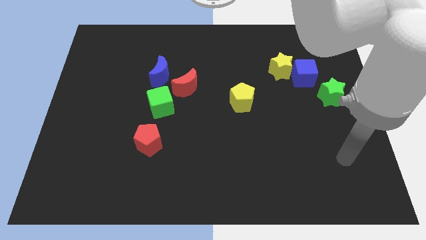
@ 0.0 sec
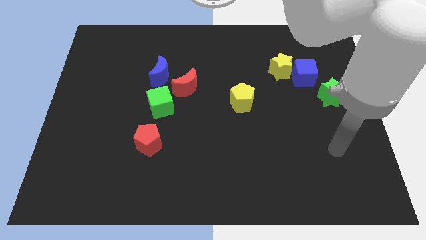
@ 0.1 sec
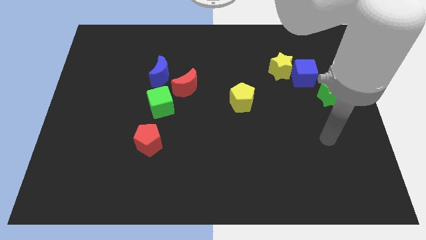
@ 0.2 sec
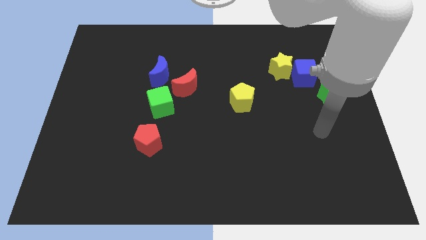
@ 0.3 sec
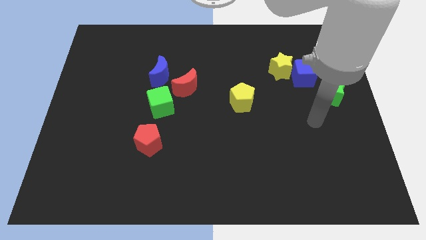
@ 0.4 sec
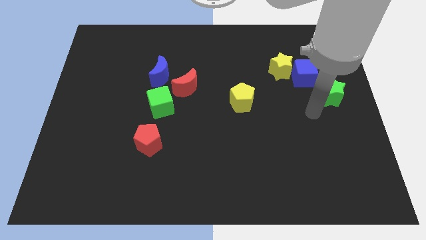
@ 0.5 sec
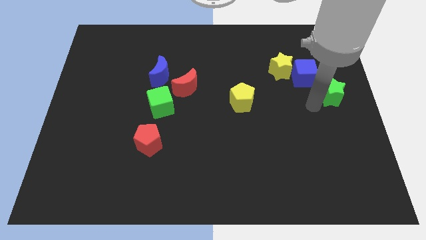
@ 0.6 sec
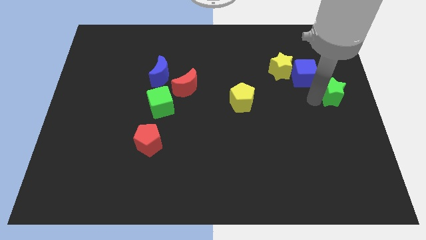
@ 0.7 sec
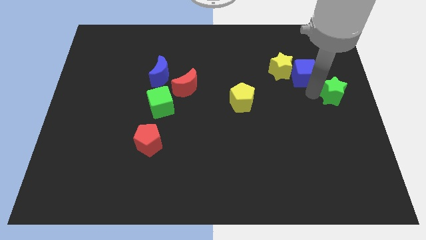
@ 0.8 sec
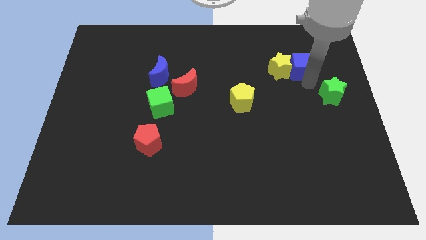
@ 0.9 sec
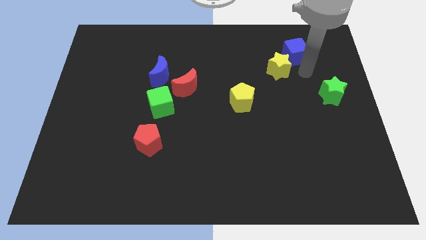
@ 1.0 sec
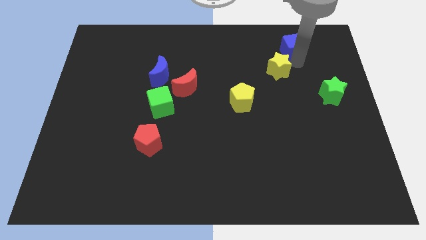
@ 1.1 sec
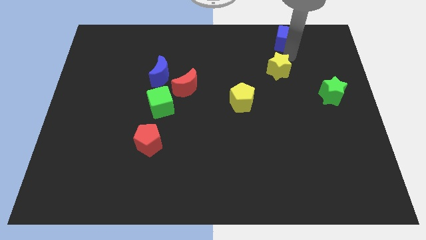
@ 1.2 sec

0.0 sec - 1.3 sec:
separate the yellow star from the blue cube

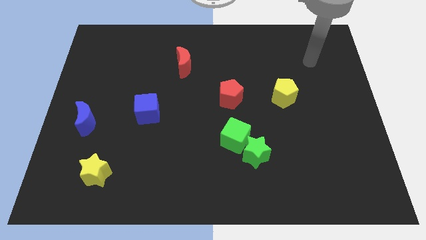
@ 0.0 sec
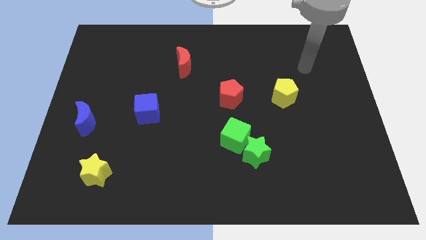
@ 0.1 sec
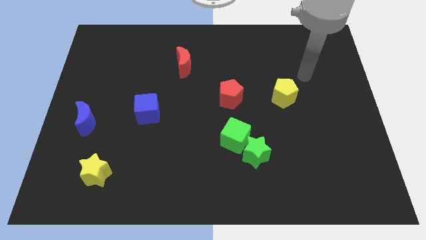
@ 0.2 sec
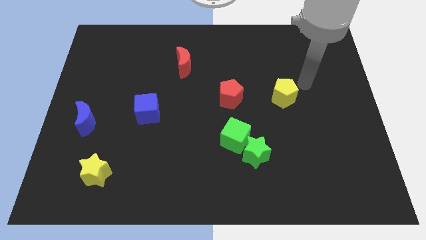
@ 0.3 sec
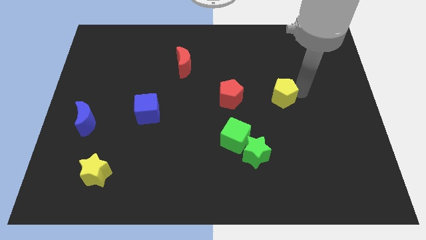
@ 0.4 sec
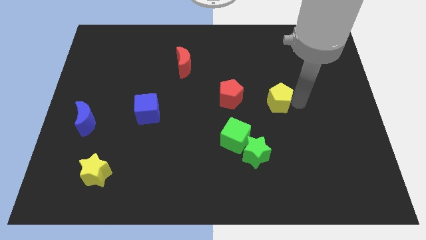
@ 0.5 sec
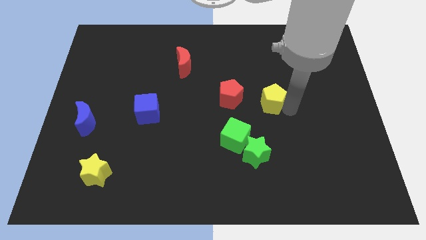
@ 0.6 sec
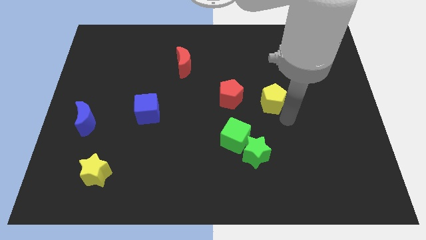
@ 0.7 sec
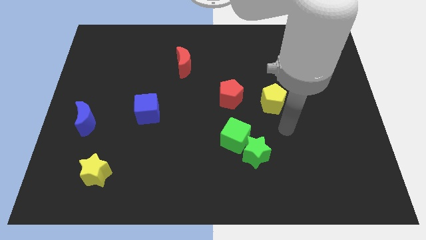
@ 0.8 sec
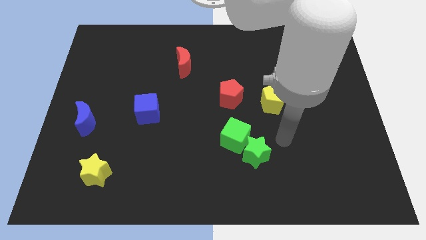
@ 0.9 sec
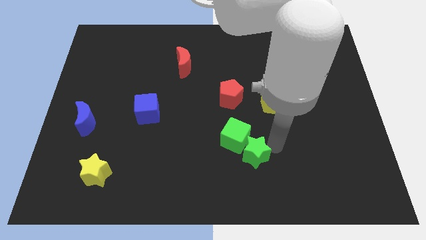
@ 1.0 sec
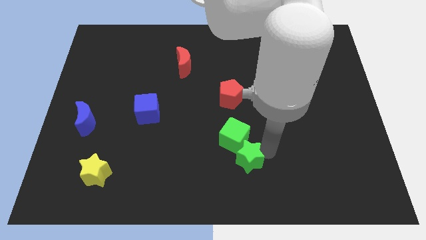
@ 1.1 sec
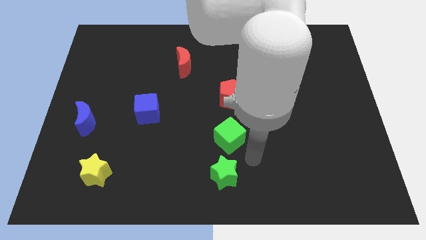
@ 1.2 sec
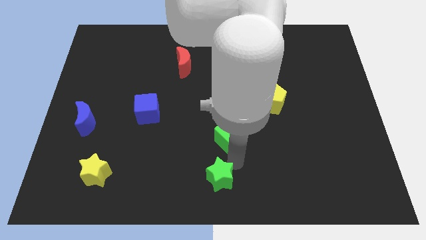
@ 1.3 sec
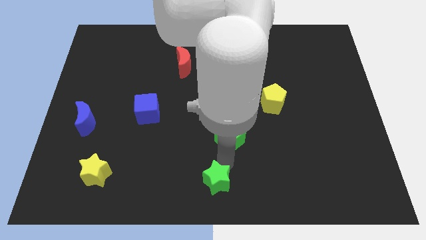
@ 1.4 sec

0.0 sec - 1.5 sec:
move the green cube away from the green star

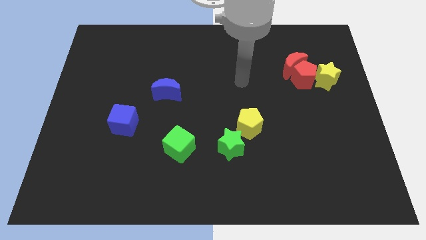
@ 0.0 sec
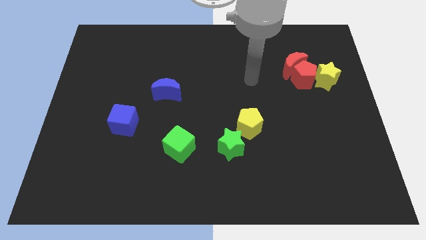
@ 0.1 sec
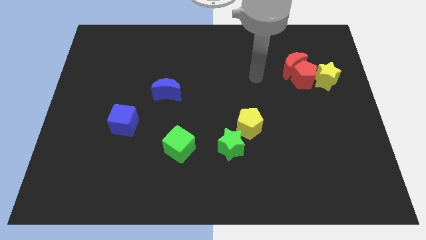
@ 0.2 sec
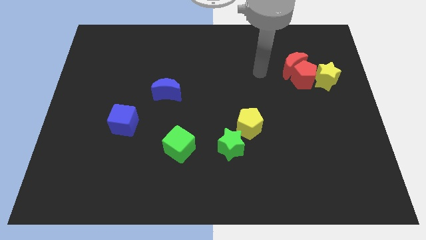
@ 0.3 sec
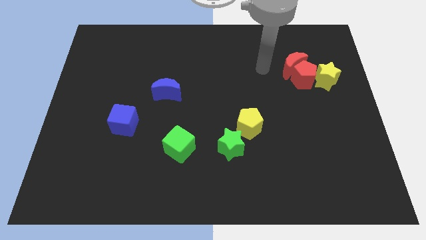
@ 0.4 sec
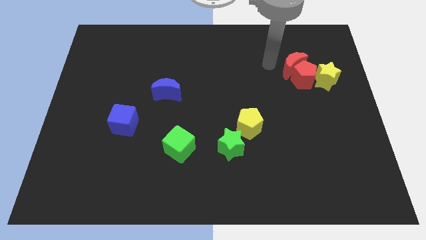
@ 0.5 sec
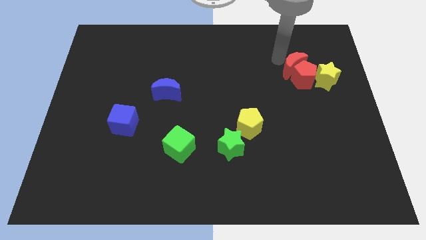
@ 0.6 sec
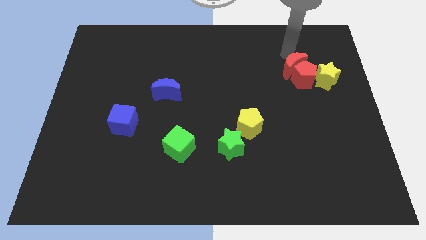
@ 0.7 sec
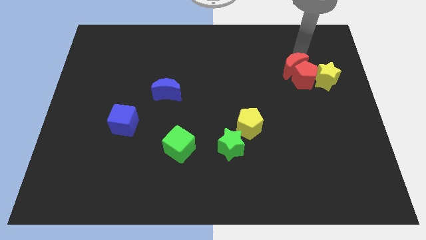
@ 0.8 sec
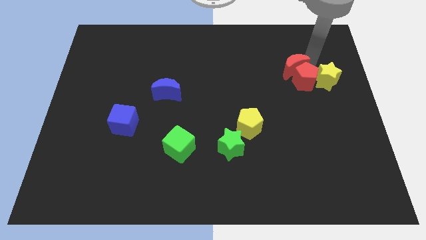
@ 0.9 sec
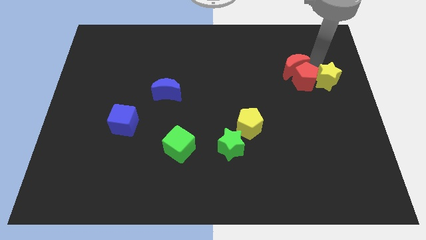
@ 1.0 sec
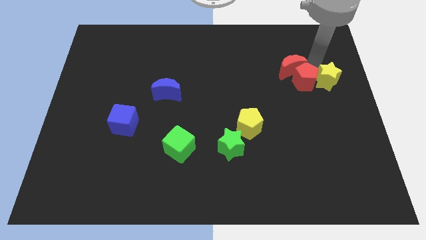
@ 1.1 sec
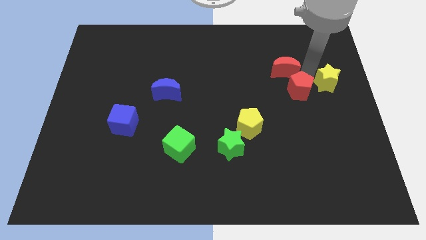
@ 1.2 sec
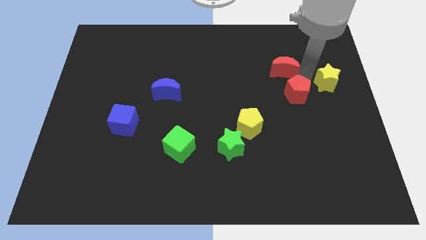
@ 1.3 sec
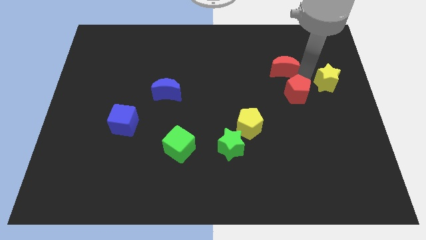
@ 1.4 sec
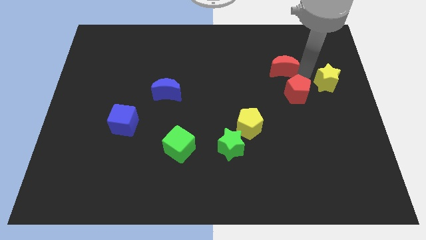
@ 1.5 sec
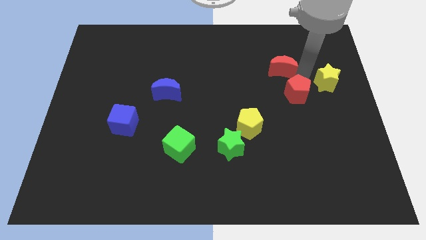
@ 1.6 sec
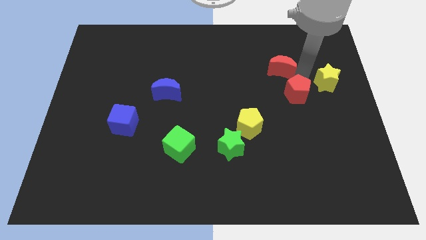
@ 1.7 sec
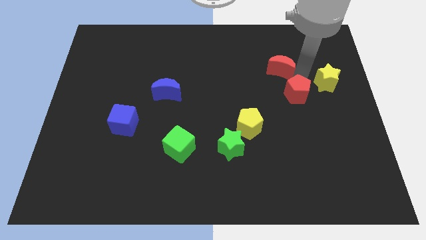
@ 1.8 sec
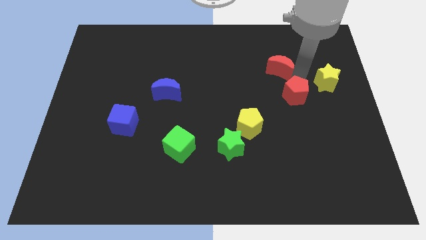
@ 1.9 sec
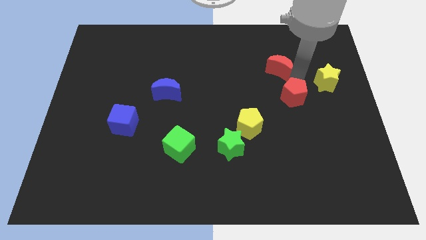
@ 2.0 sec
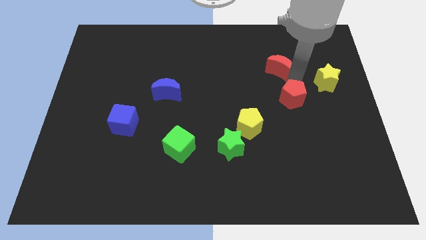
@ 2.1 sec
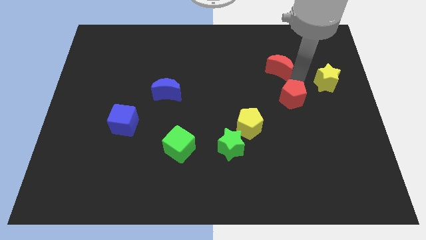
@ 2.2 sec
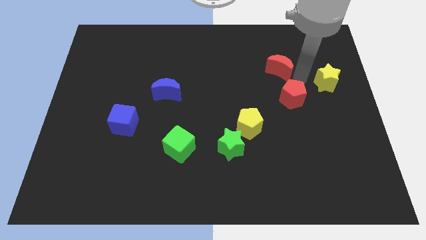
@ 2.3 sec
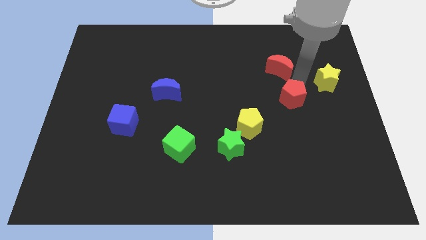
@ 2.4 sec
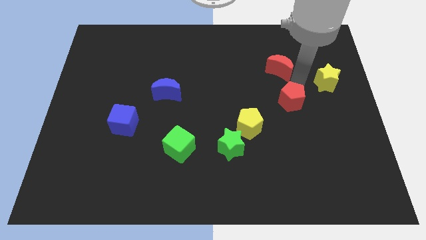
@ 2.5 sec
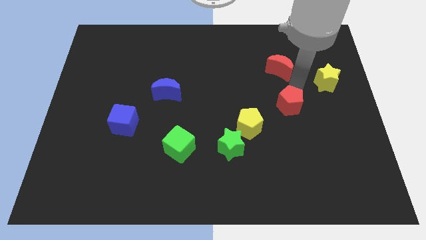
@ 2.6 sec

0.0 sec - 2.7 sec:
move the red pentagon away from the red moon and yellow star

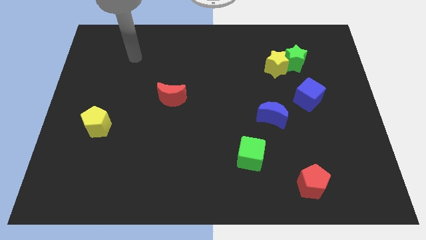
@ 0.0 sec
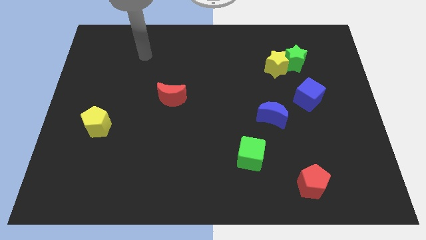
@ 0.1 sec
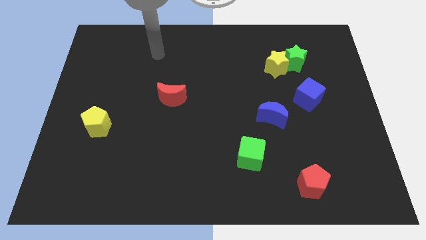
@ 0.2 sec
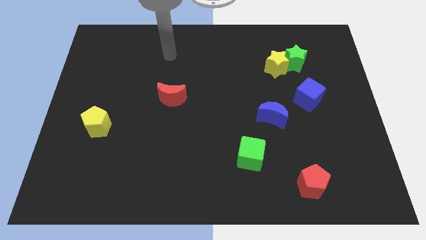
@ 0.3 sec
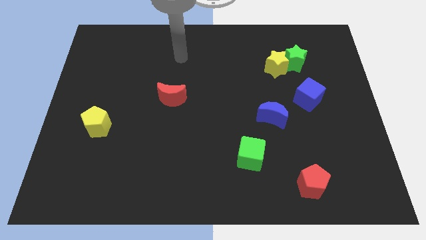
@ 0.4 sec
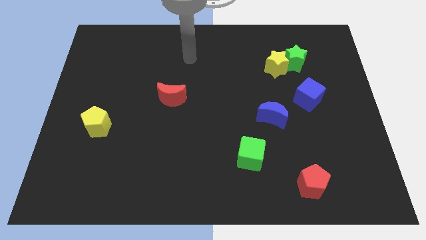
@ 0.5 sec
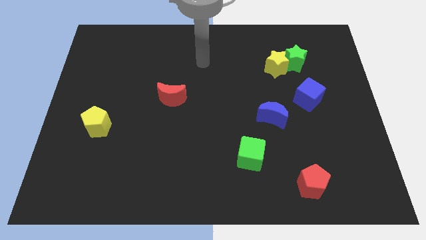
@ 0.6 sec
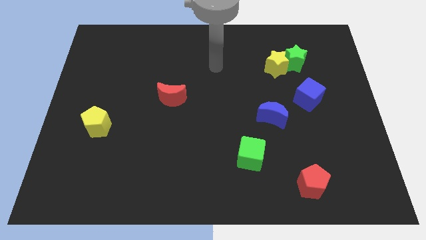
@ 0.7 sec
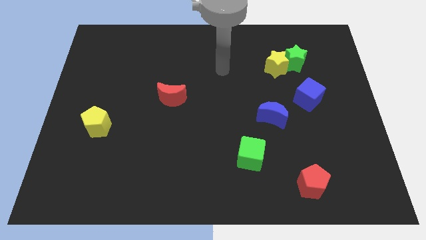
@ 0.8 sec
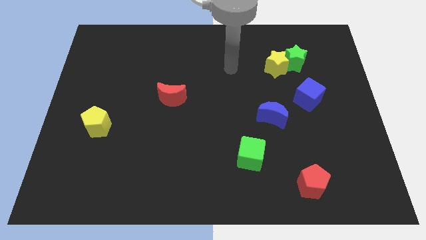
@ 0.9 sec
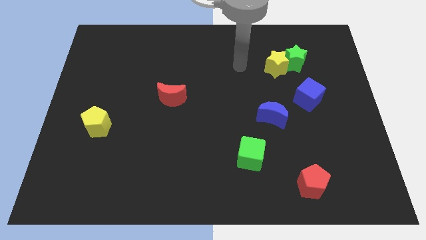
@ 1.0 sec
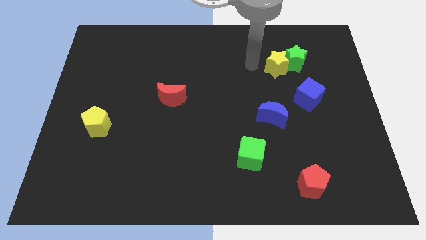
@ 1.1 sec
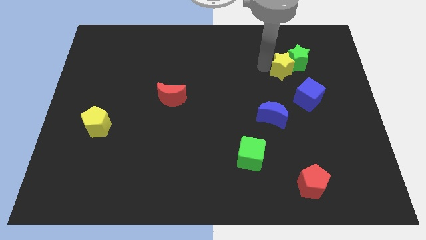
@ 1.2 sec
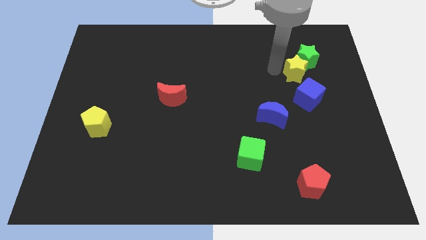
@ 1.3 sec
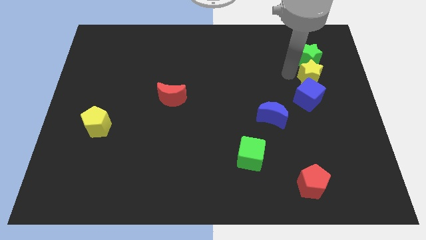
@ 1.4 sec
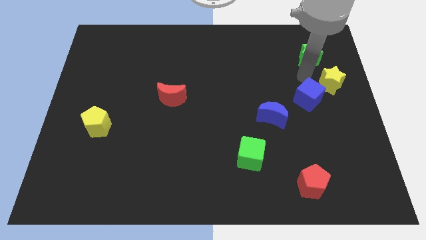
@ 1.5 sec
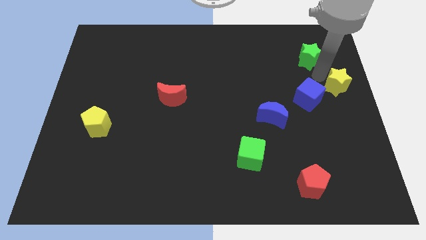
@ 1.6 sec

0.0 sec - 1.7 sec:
pull the green star apart from the yellow star

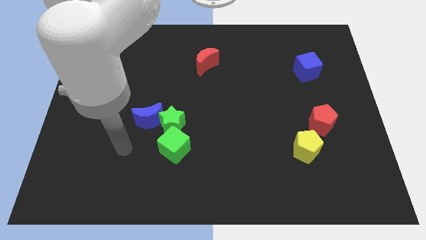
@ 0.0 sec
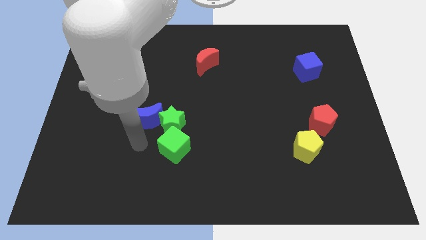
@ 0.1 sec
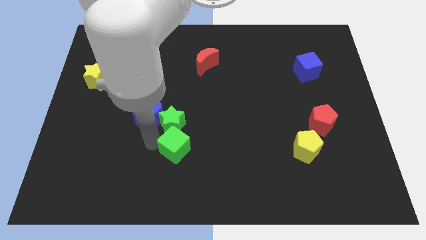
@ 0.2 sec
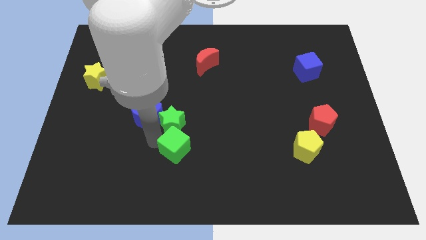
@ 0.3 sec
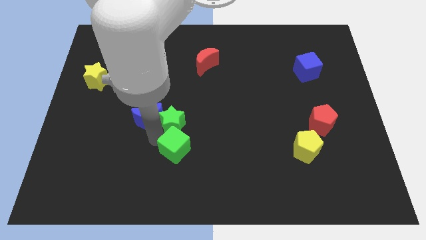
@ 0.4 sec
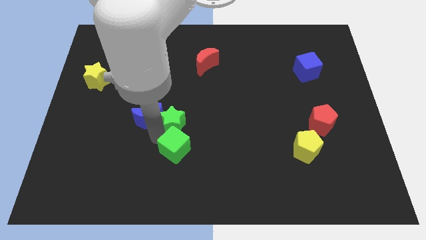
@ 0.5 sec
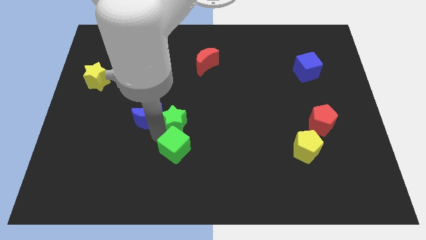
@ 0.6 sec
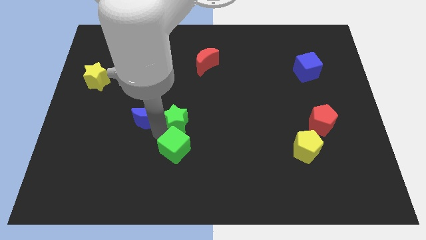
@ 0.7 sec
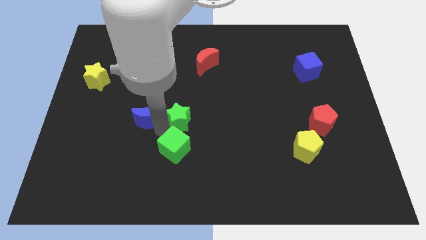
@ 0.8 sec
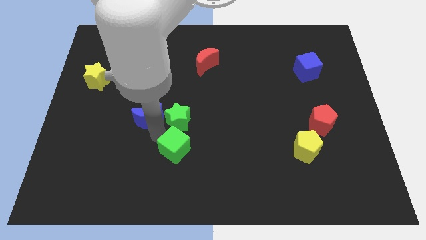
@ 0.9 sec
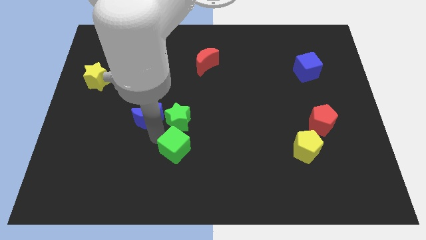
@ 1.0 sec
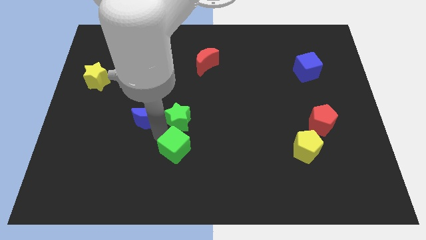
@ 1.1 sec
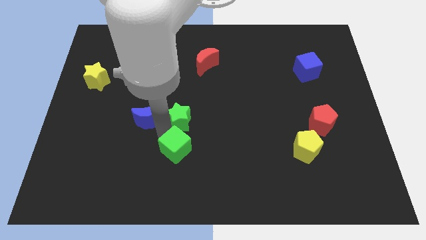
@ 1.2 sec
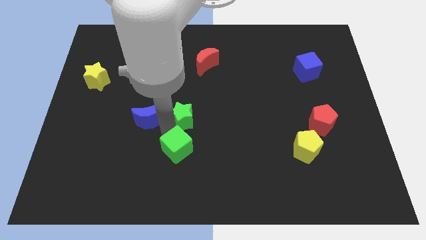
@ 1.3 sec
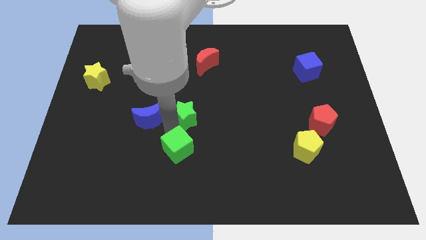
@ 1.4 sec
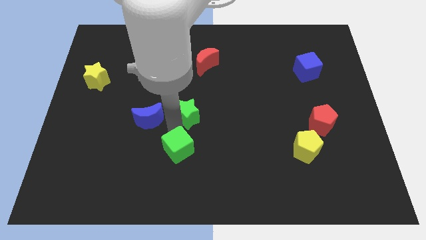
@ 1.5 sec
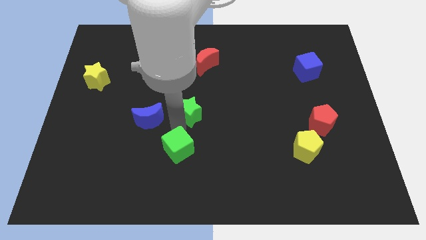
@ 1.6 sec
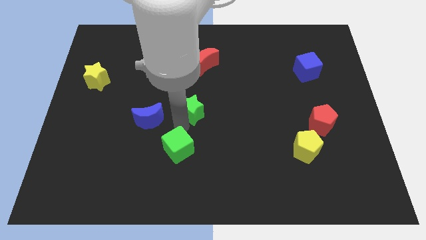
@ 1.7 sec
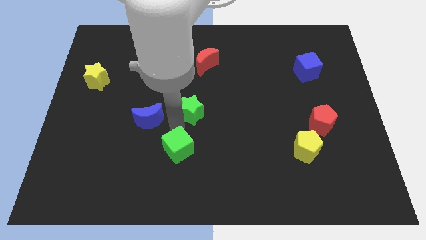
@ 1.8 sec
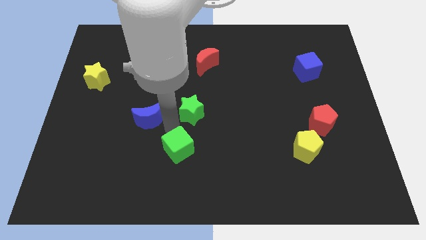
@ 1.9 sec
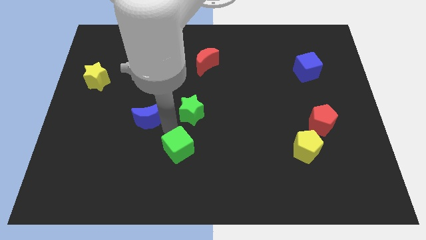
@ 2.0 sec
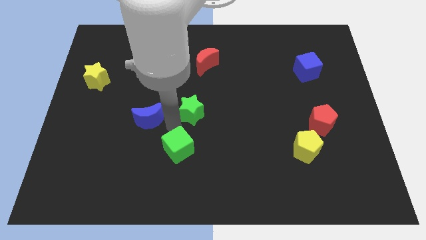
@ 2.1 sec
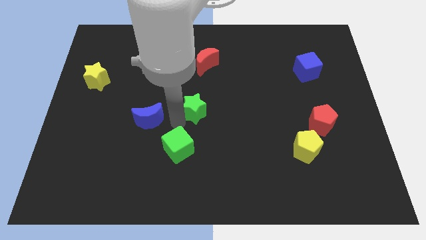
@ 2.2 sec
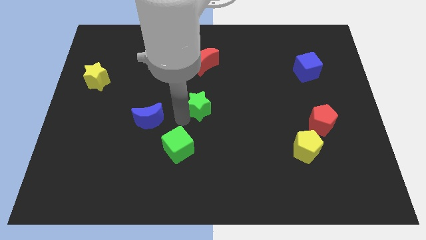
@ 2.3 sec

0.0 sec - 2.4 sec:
pull the green star apart from the blue moon and green cube
